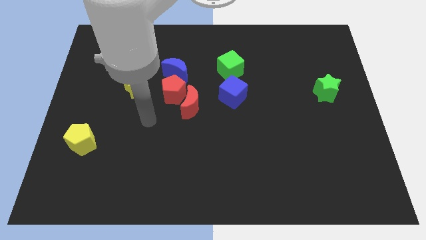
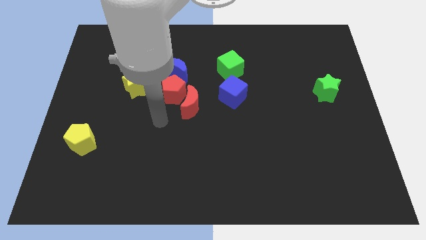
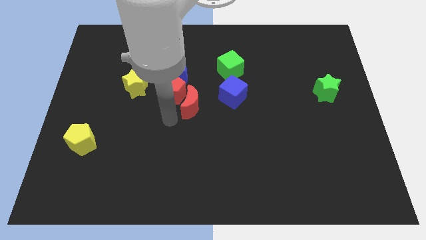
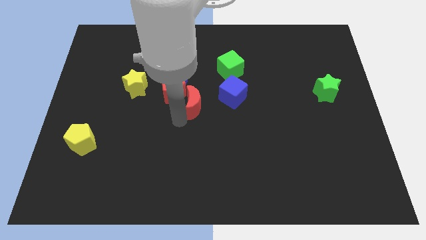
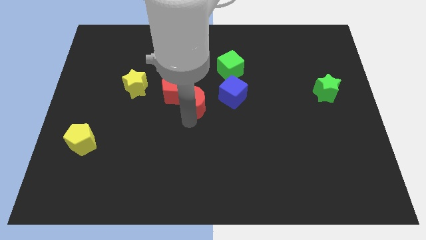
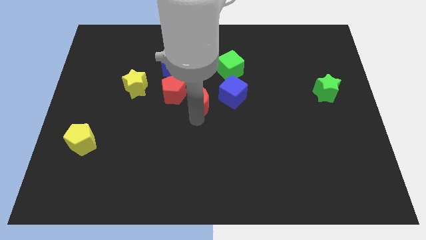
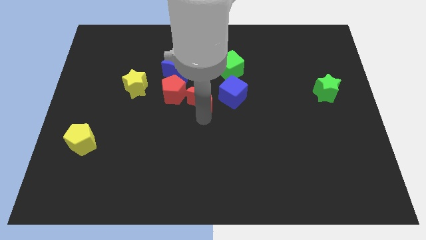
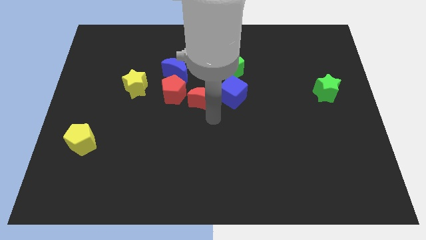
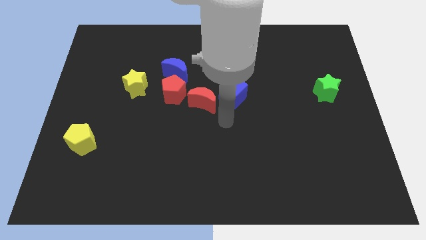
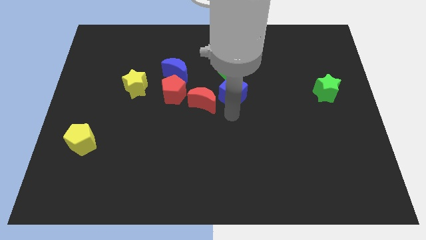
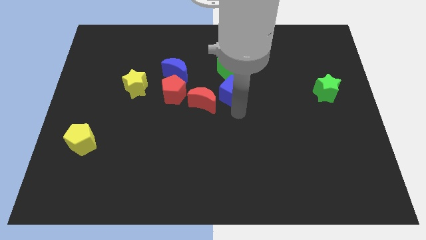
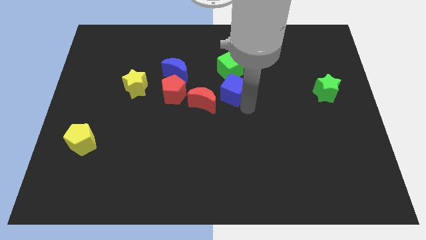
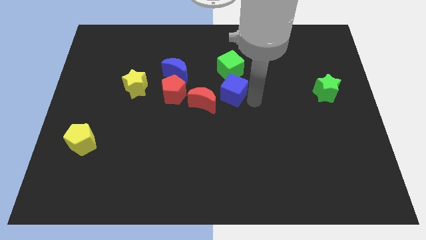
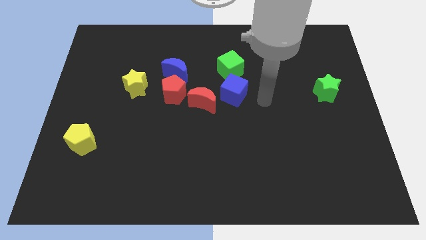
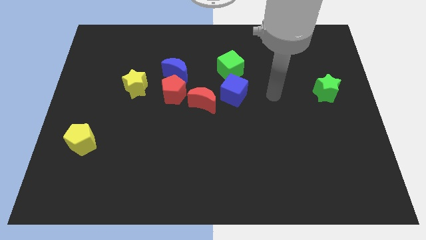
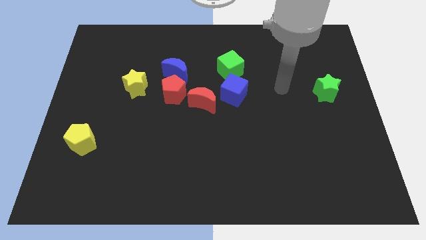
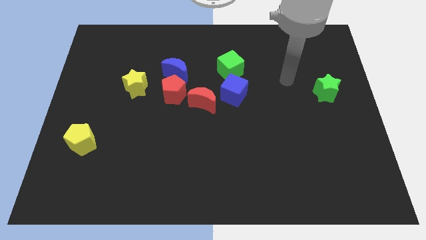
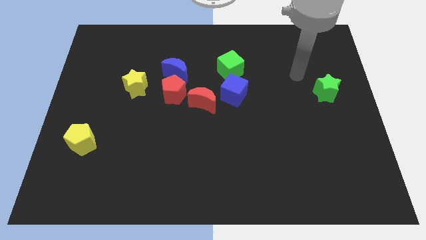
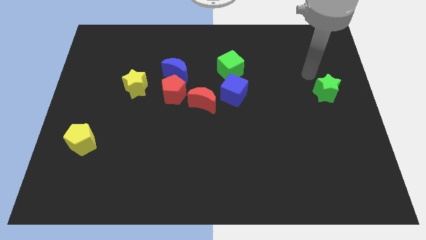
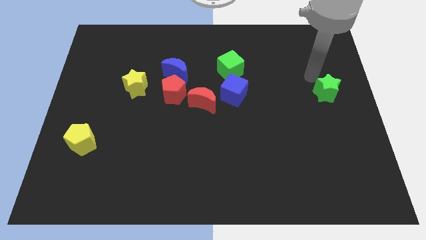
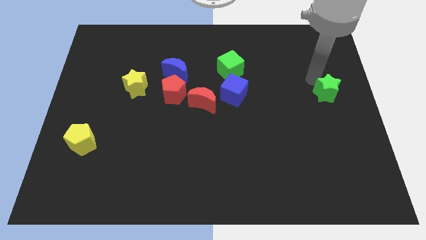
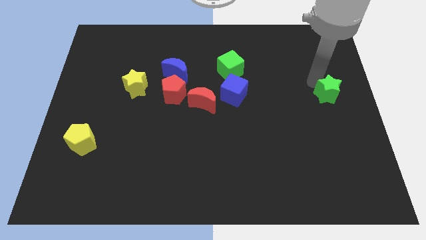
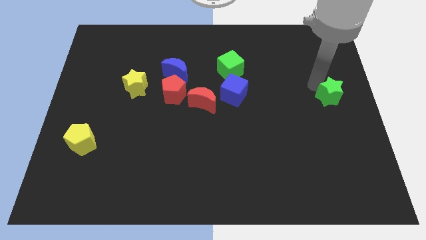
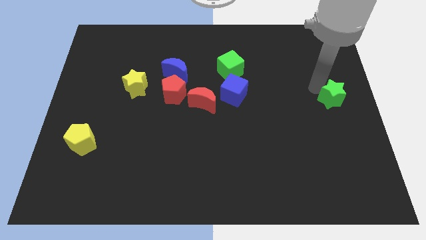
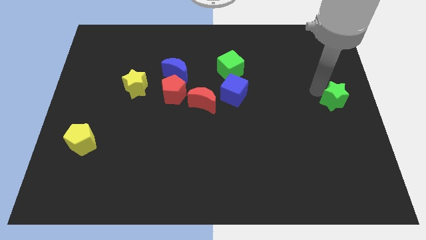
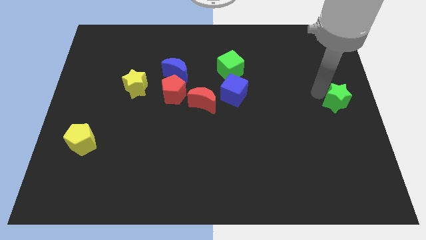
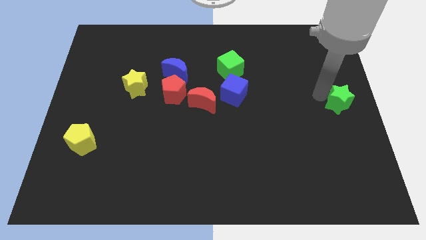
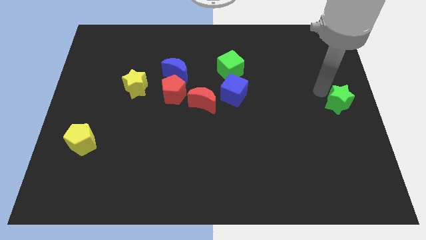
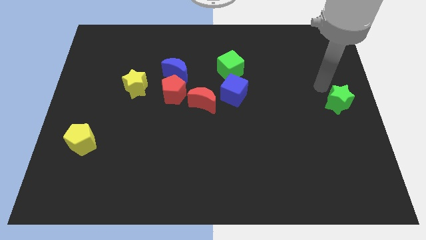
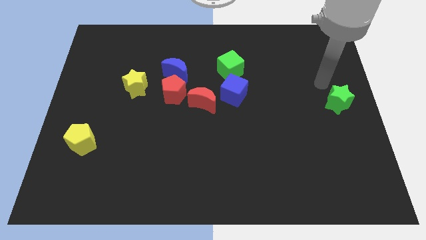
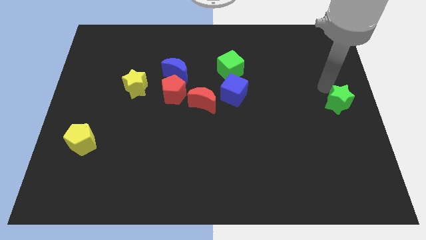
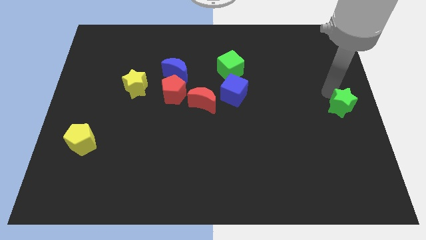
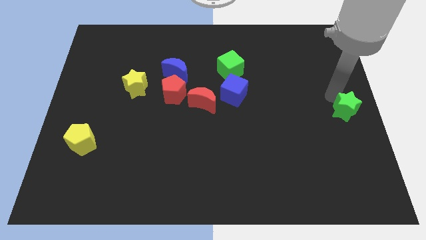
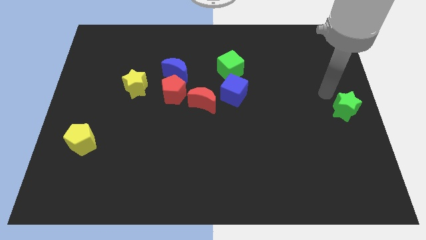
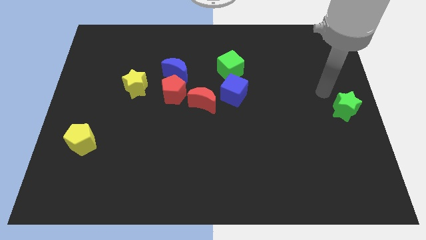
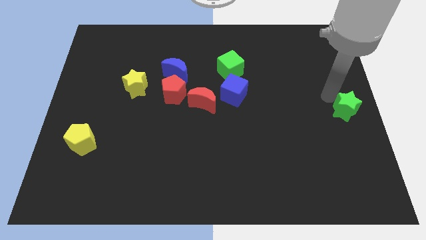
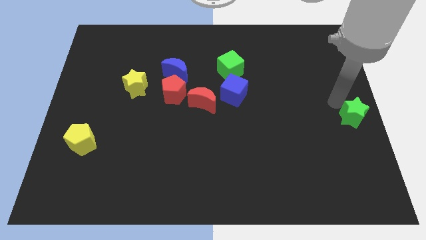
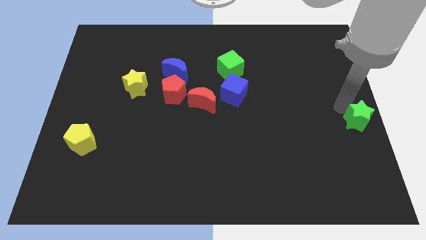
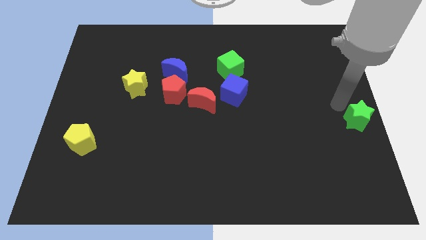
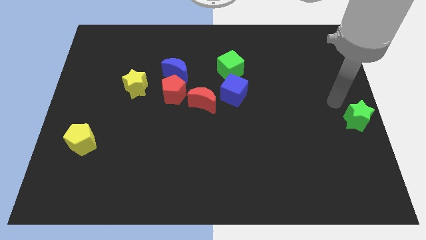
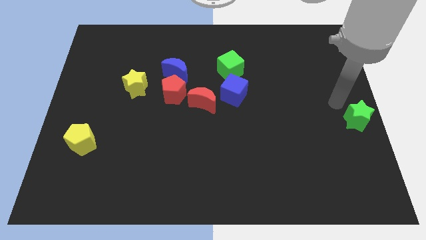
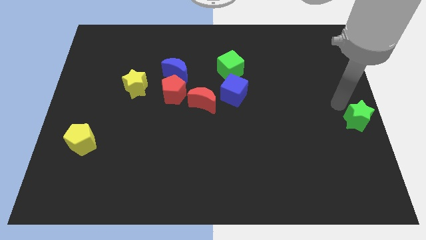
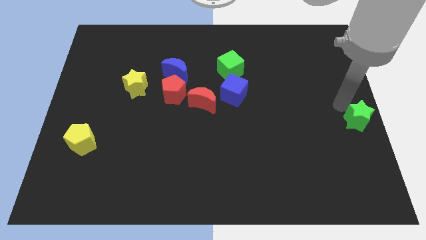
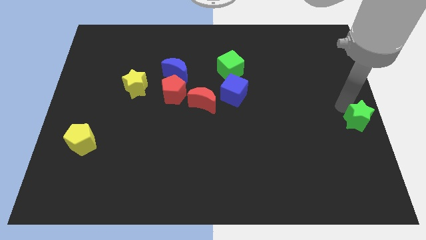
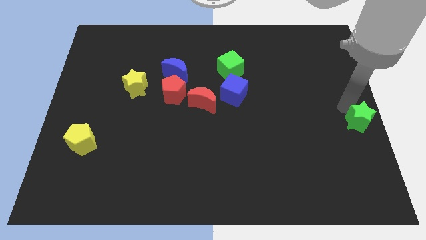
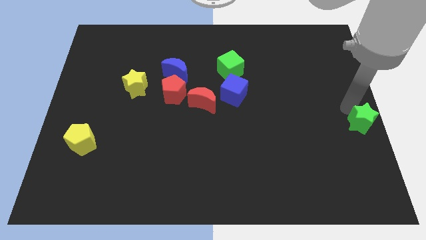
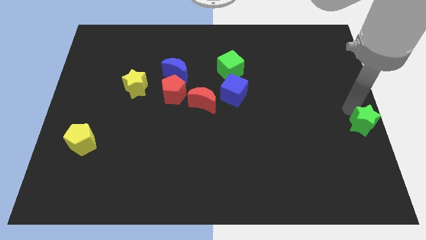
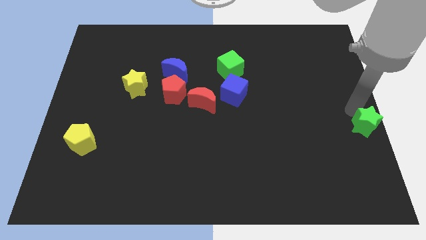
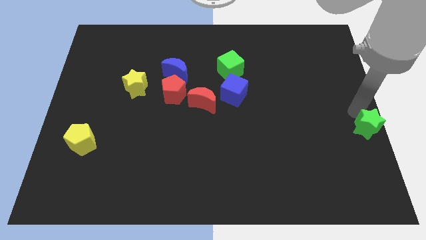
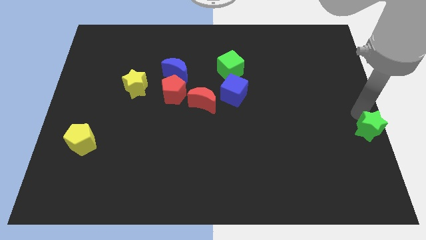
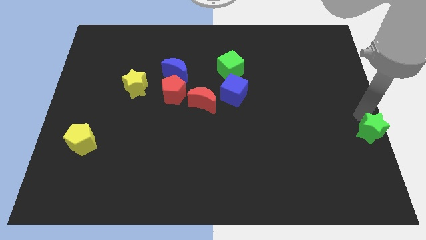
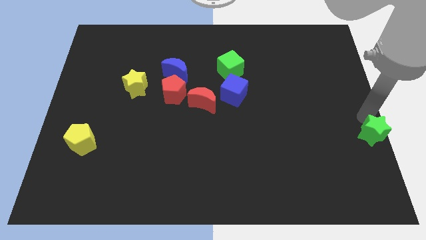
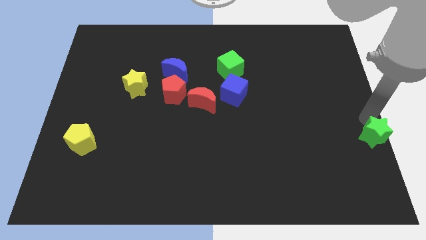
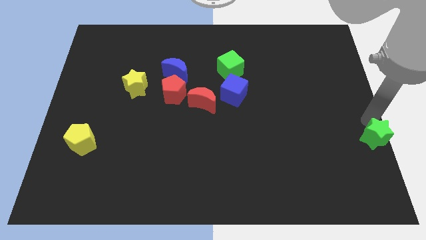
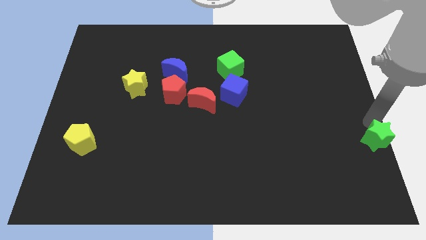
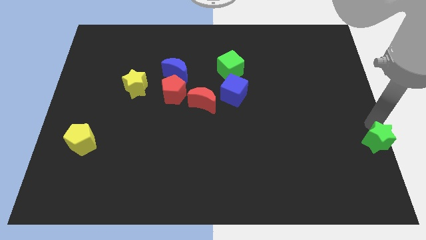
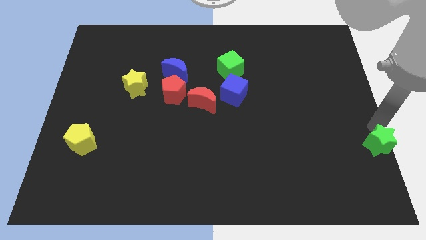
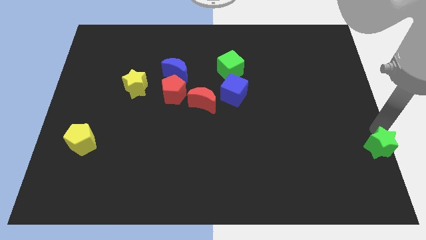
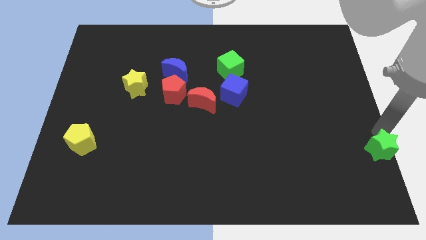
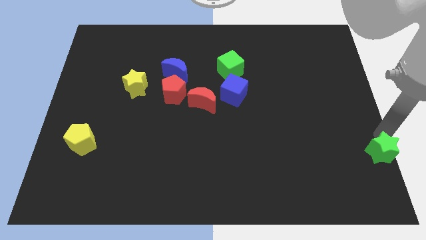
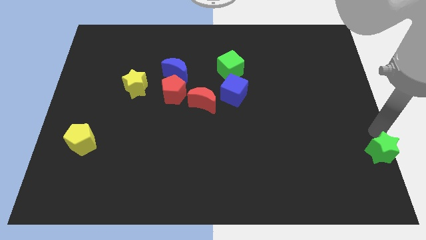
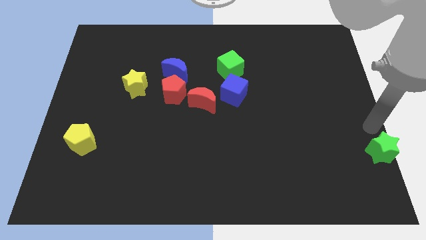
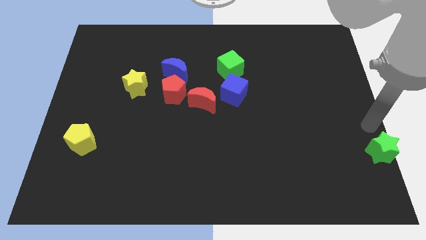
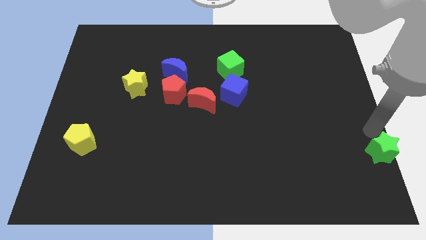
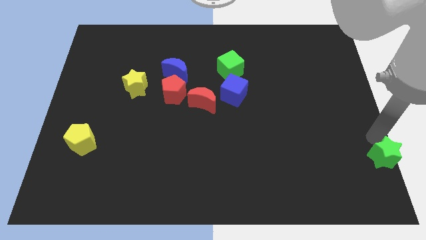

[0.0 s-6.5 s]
move the green star to the bottom right
